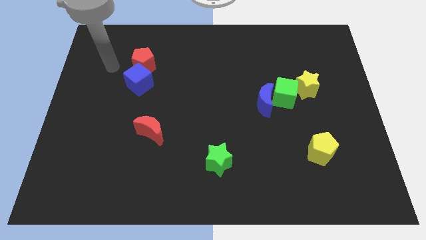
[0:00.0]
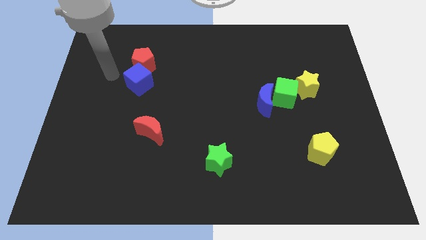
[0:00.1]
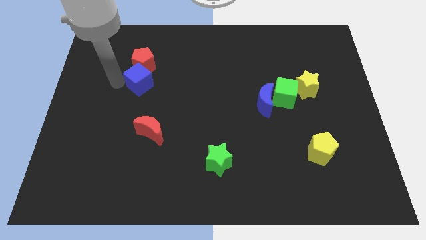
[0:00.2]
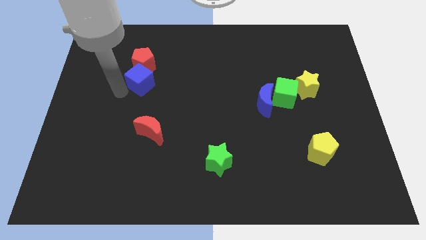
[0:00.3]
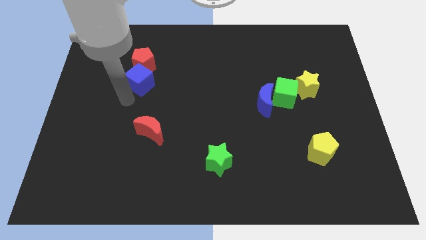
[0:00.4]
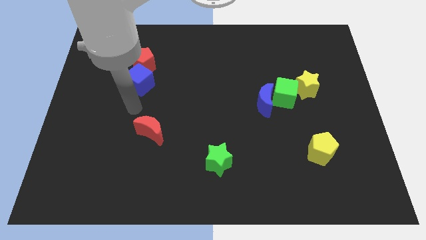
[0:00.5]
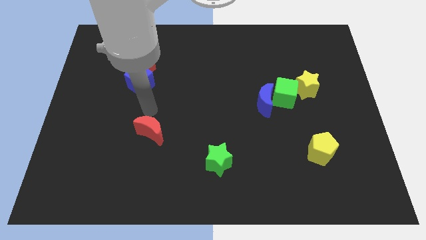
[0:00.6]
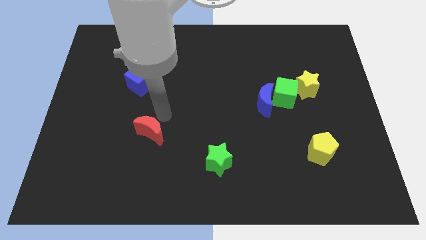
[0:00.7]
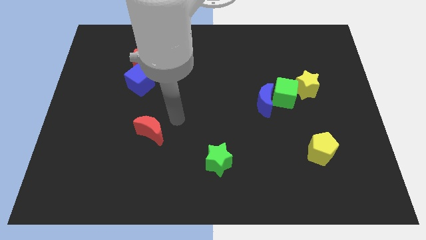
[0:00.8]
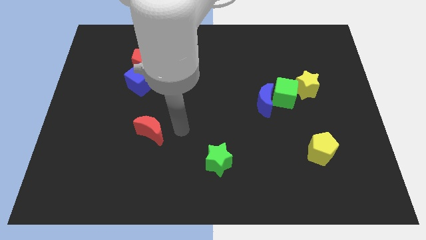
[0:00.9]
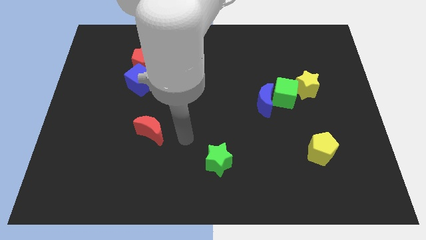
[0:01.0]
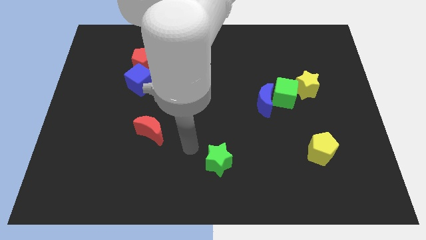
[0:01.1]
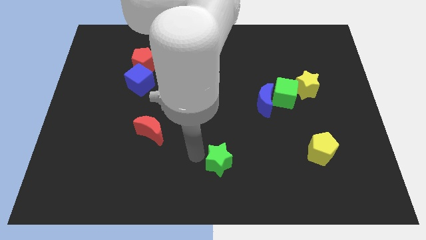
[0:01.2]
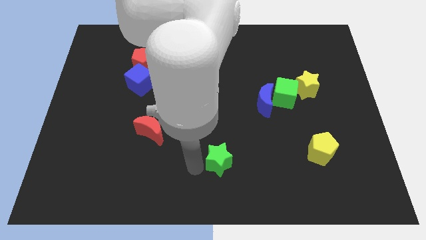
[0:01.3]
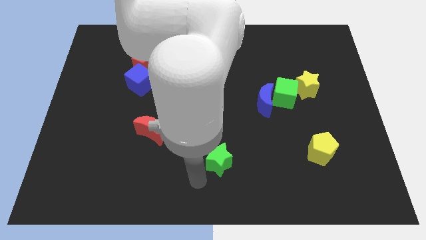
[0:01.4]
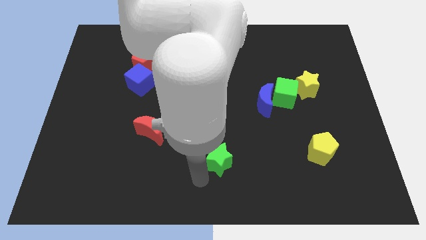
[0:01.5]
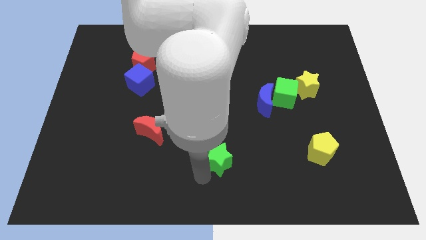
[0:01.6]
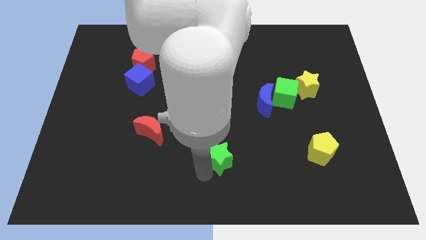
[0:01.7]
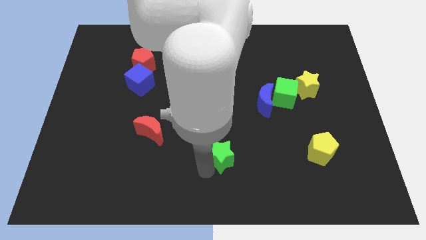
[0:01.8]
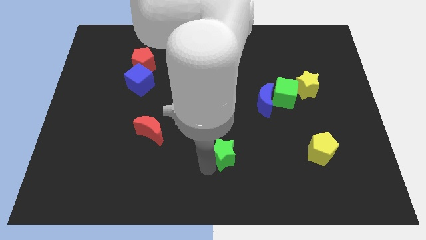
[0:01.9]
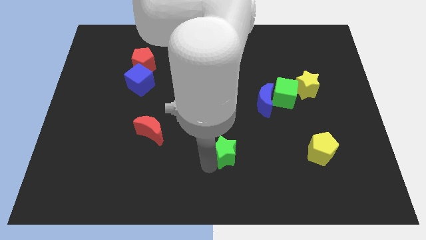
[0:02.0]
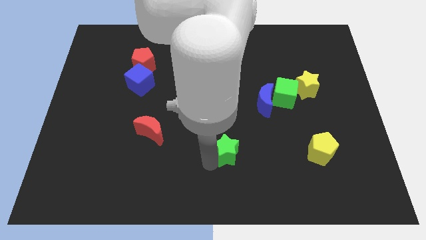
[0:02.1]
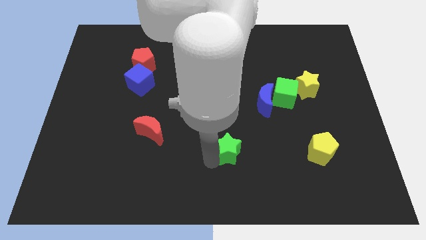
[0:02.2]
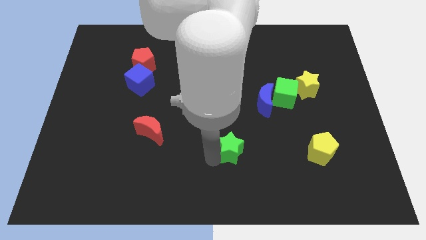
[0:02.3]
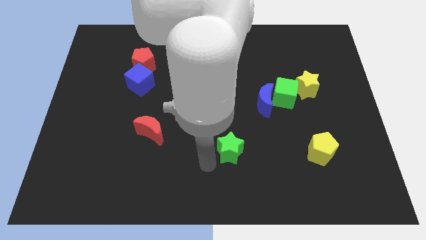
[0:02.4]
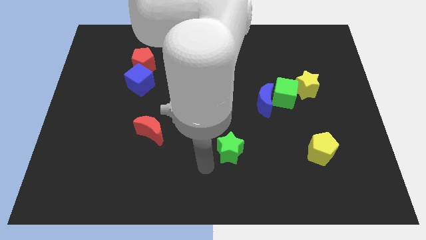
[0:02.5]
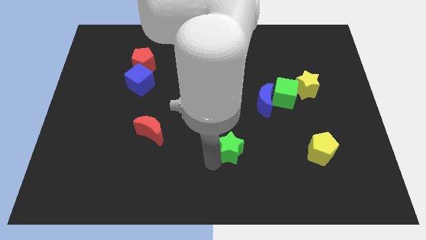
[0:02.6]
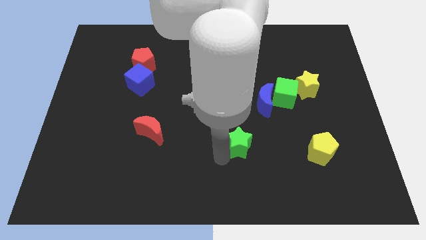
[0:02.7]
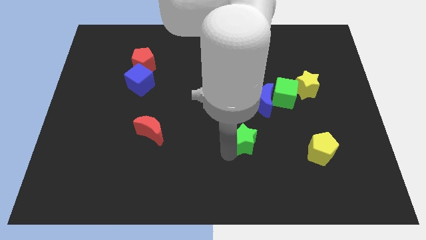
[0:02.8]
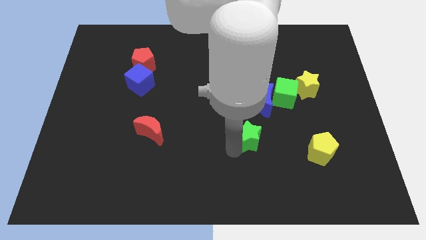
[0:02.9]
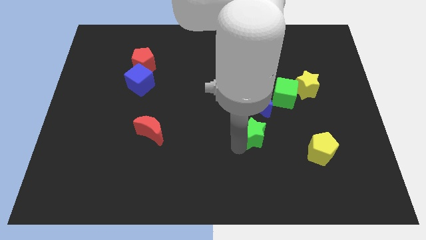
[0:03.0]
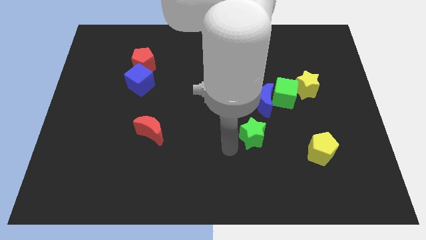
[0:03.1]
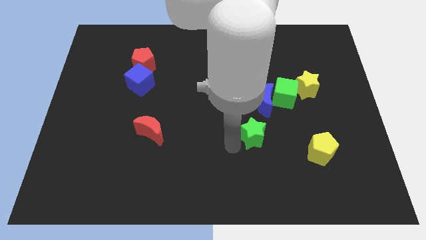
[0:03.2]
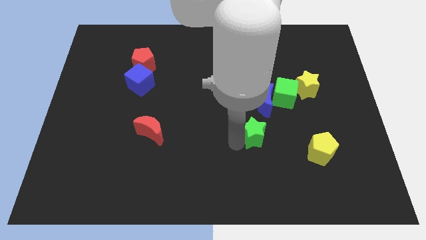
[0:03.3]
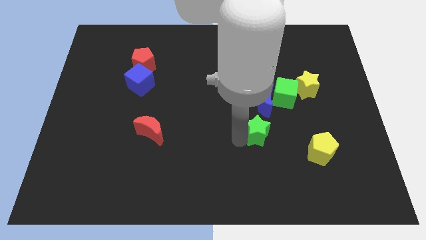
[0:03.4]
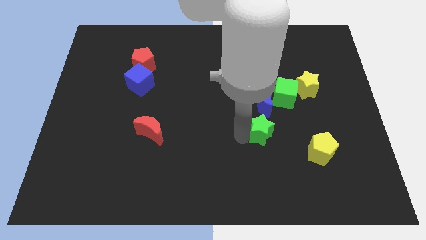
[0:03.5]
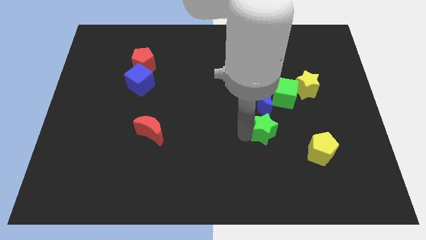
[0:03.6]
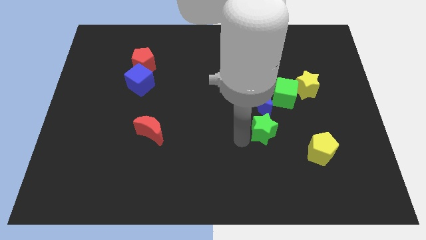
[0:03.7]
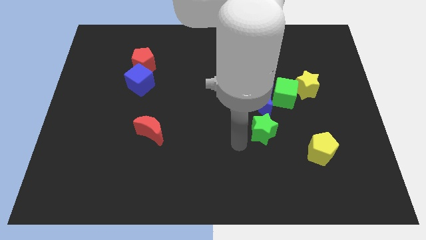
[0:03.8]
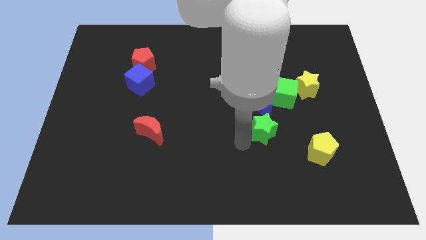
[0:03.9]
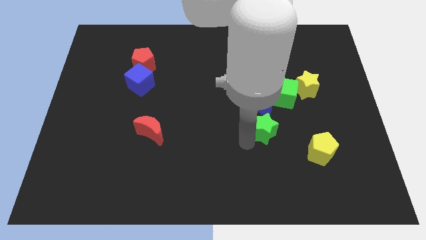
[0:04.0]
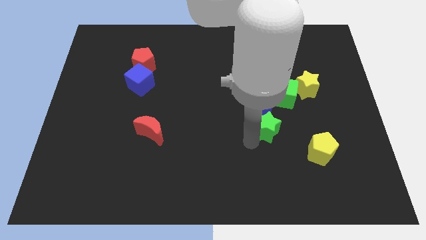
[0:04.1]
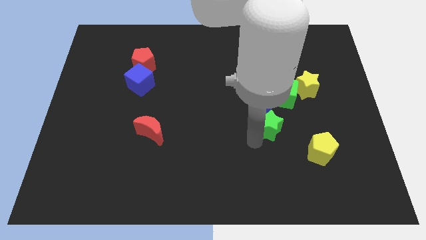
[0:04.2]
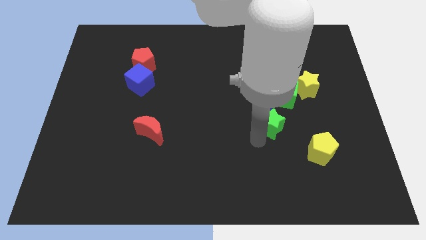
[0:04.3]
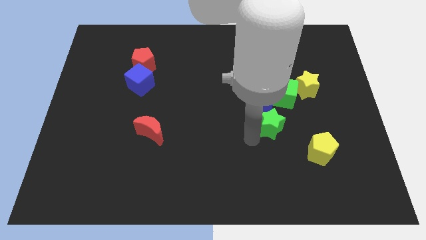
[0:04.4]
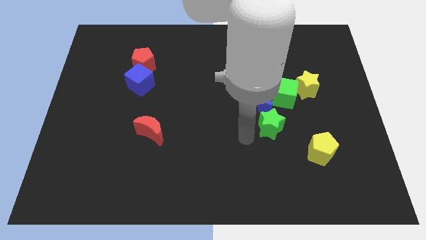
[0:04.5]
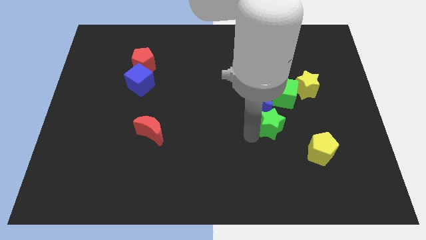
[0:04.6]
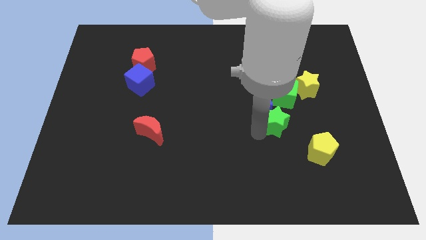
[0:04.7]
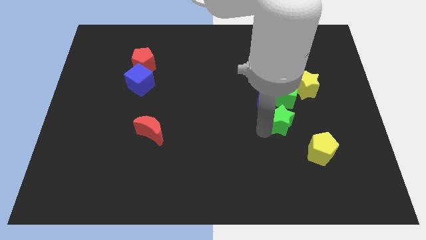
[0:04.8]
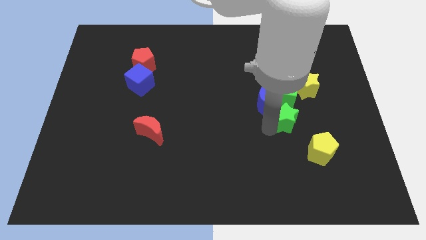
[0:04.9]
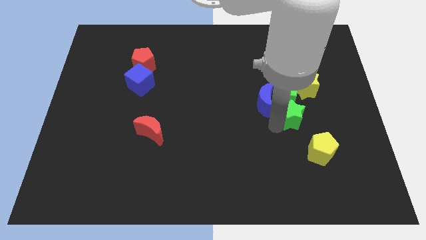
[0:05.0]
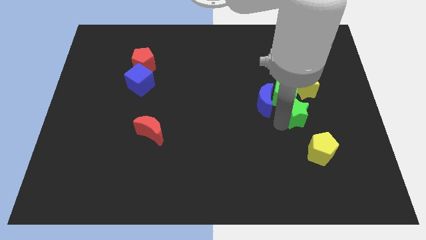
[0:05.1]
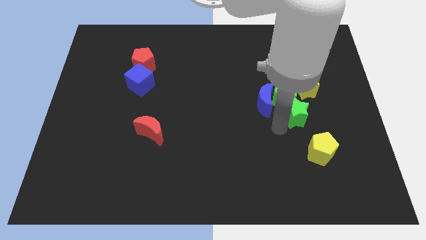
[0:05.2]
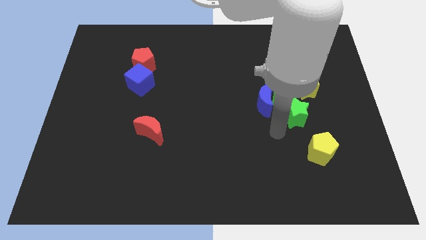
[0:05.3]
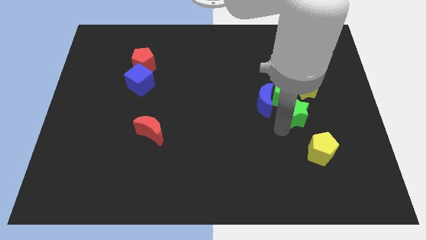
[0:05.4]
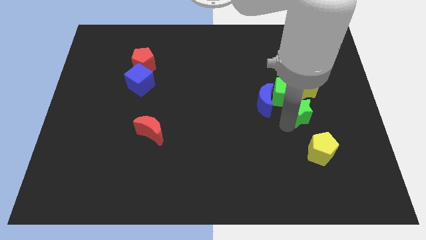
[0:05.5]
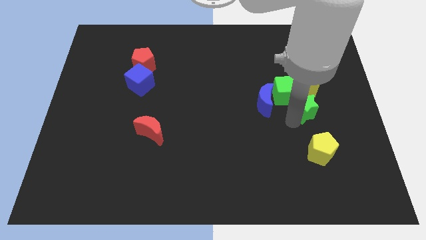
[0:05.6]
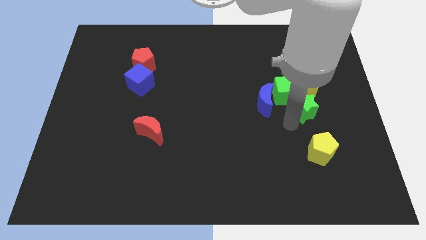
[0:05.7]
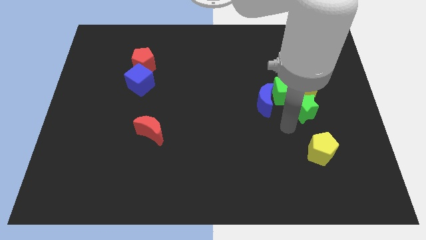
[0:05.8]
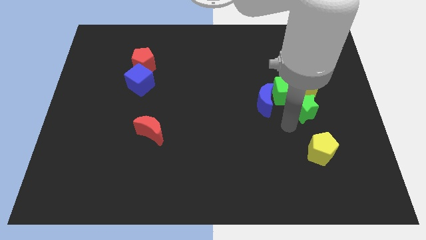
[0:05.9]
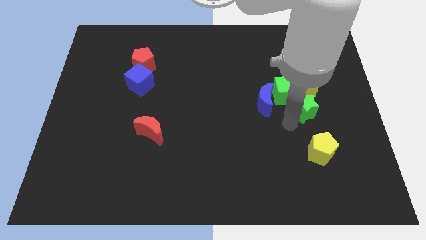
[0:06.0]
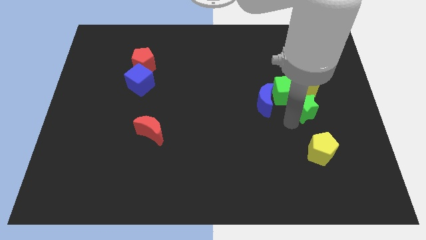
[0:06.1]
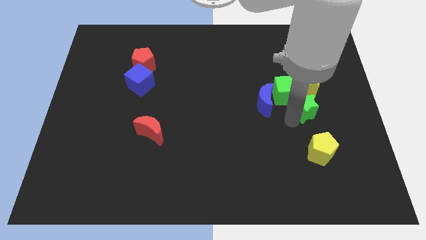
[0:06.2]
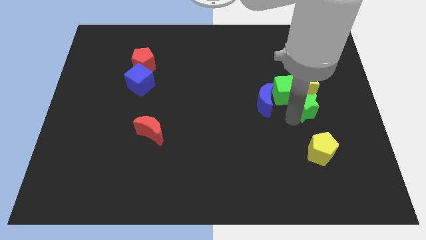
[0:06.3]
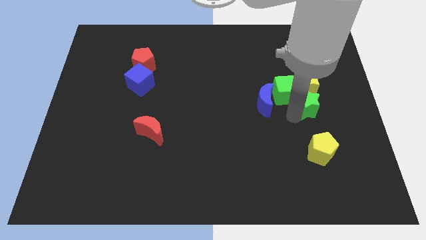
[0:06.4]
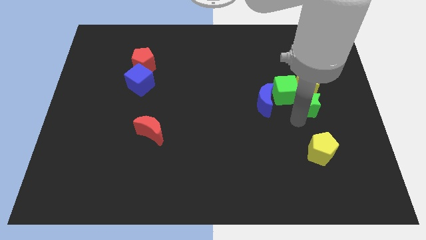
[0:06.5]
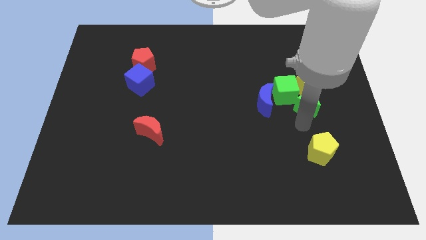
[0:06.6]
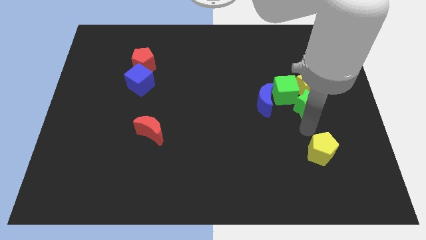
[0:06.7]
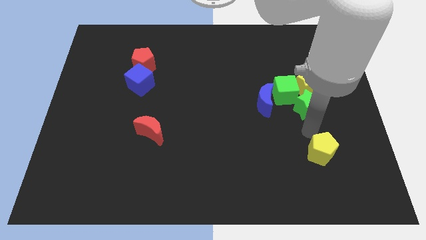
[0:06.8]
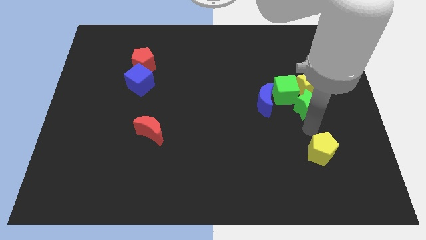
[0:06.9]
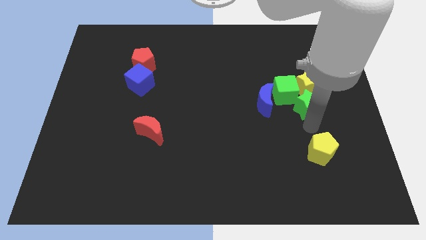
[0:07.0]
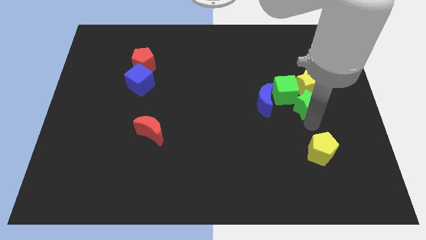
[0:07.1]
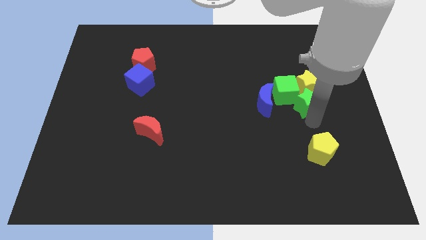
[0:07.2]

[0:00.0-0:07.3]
move the green star close to the yellow star
